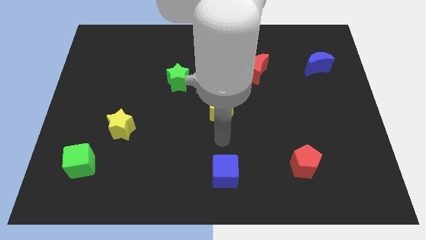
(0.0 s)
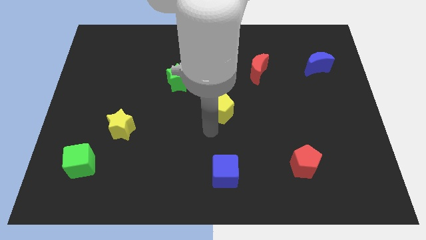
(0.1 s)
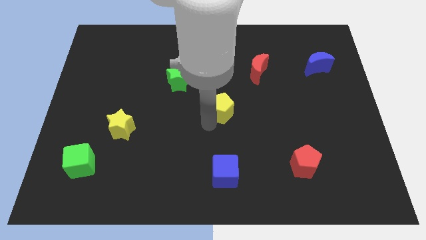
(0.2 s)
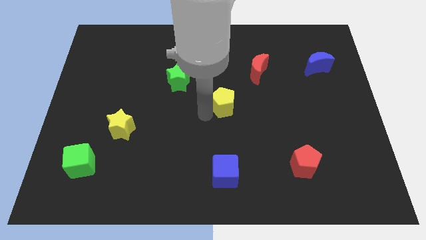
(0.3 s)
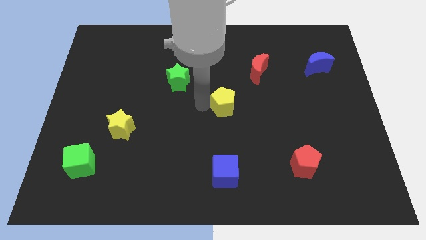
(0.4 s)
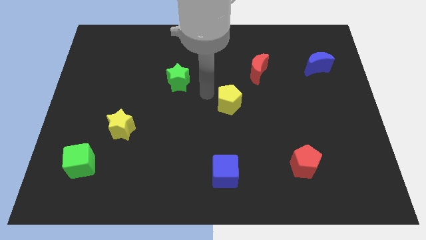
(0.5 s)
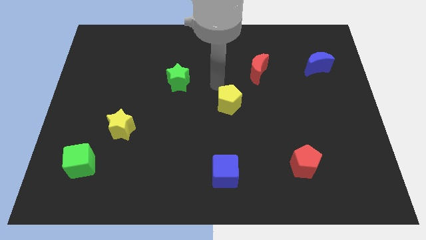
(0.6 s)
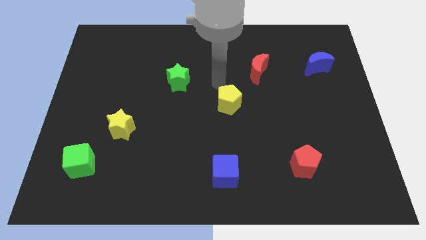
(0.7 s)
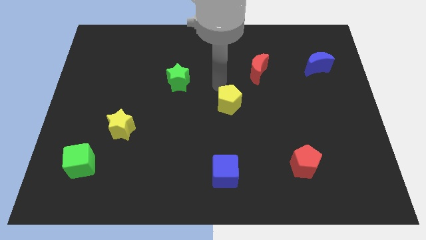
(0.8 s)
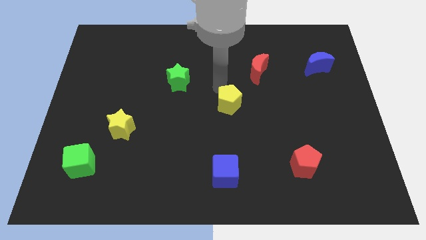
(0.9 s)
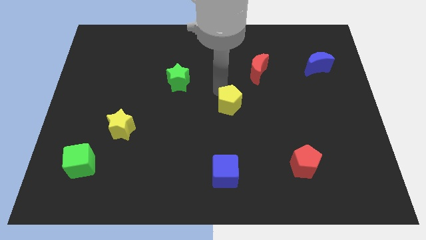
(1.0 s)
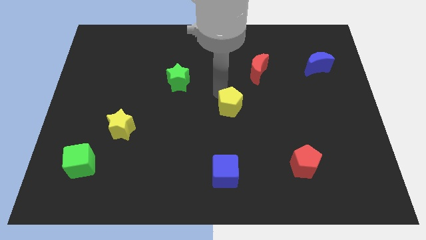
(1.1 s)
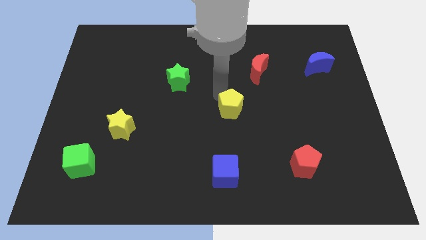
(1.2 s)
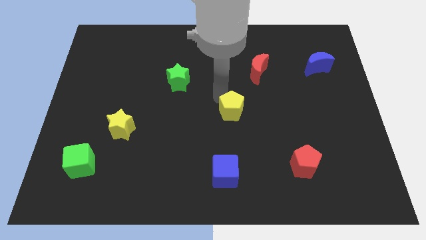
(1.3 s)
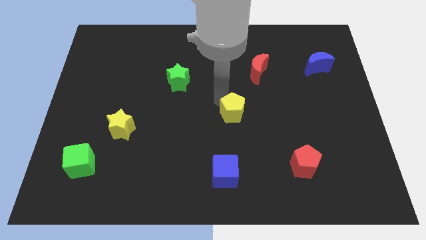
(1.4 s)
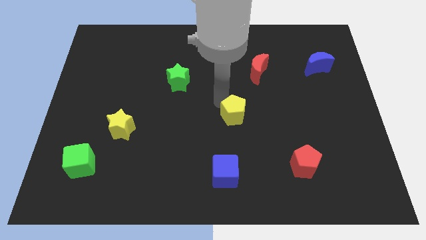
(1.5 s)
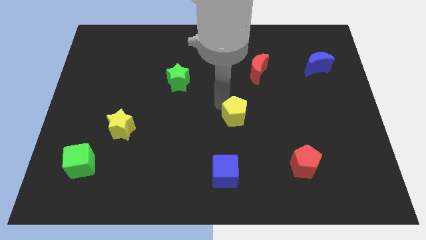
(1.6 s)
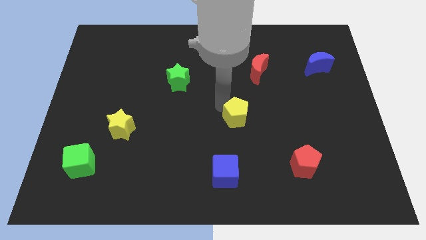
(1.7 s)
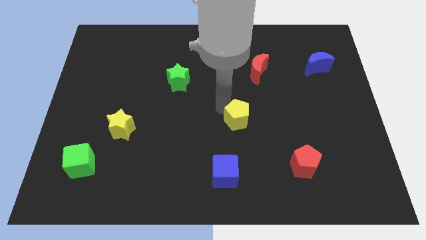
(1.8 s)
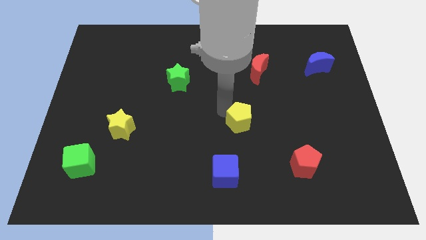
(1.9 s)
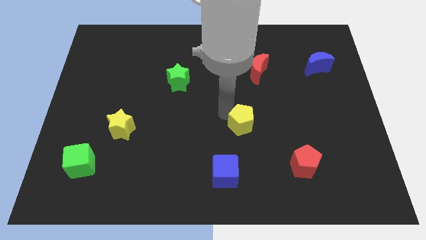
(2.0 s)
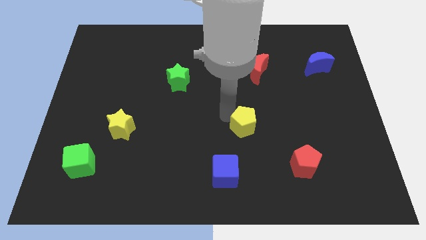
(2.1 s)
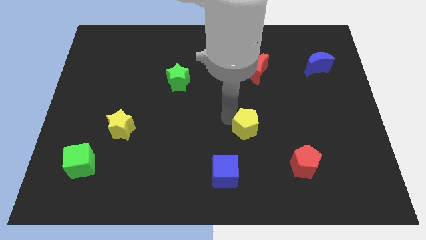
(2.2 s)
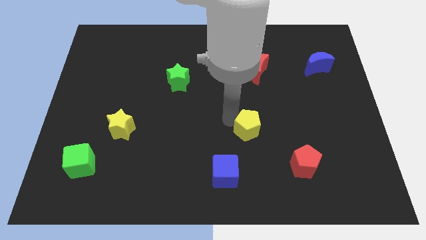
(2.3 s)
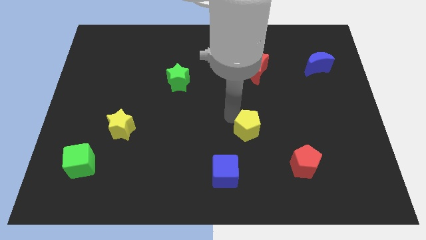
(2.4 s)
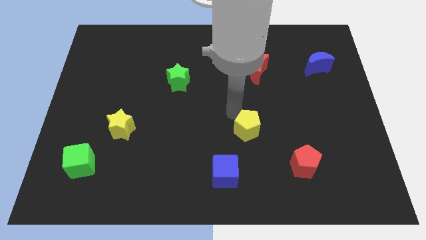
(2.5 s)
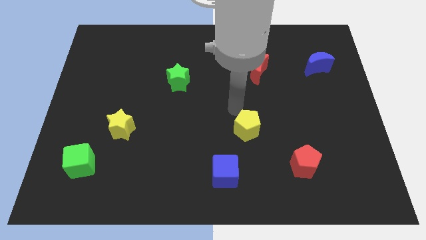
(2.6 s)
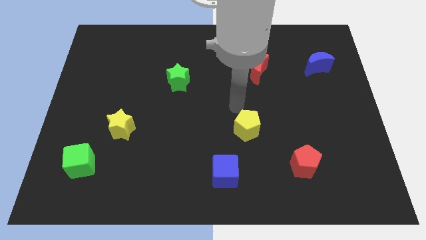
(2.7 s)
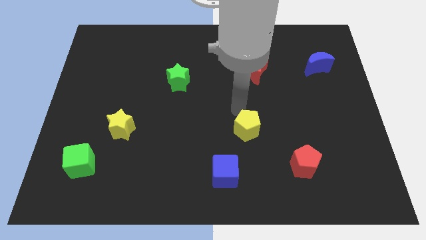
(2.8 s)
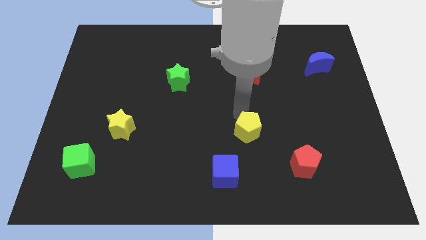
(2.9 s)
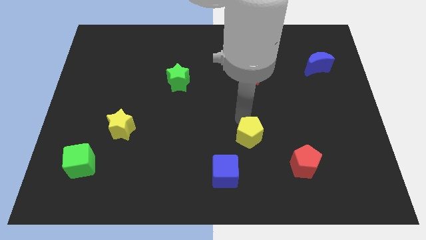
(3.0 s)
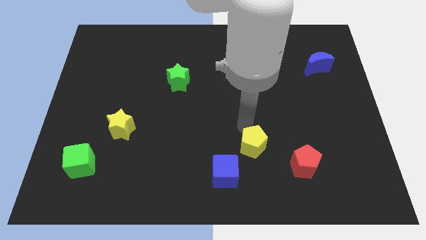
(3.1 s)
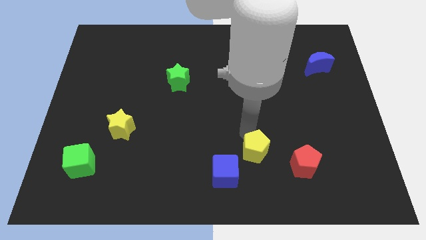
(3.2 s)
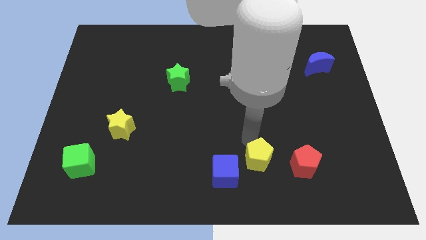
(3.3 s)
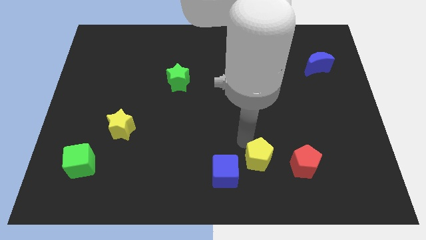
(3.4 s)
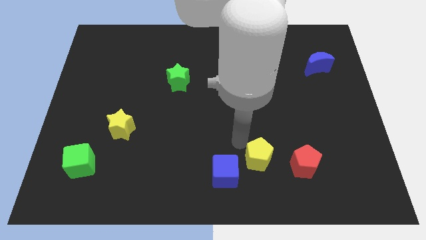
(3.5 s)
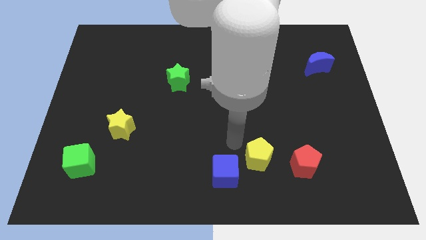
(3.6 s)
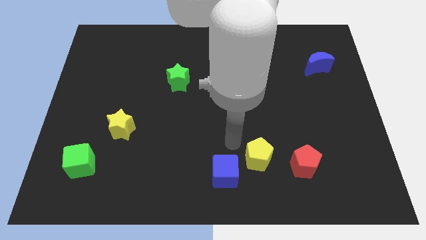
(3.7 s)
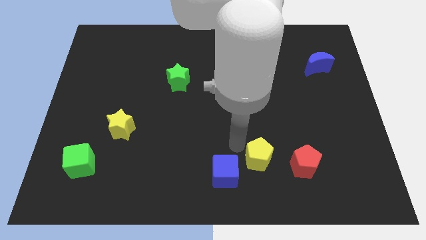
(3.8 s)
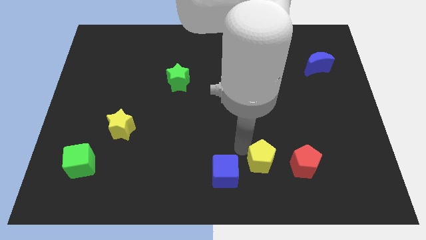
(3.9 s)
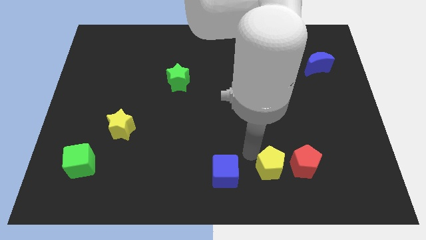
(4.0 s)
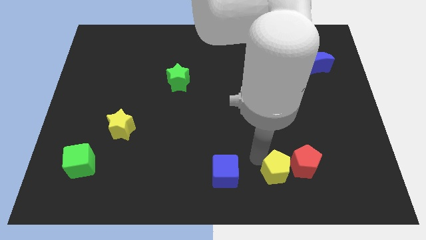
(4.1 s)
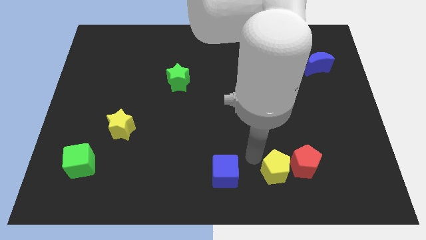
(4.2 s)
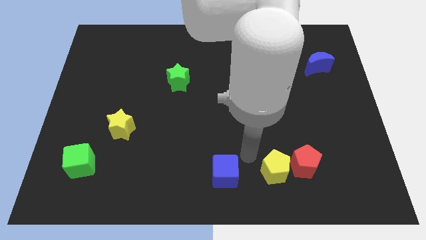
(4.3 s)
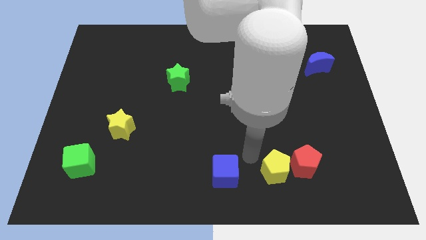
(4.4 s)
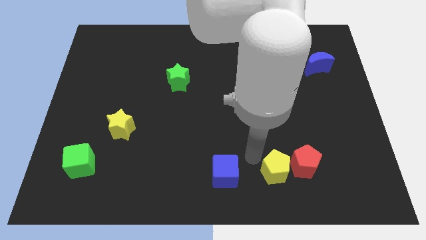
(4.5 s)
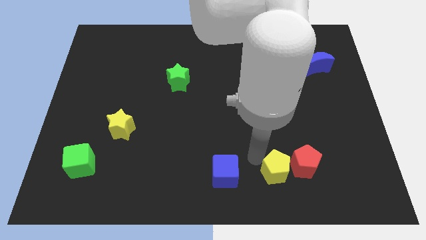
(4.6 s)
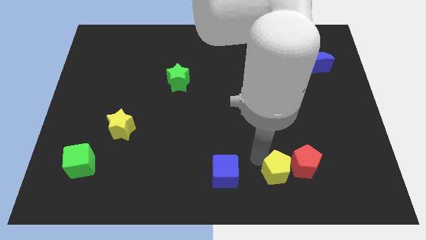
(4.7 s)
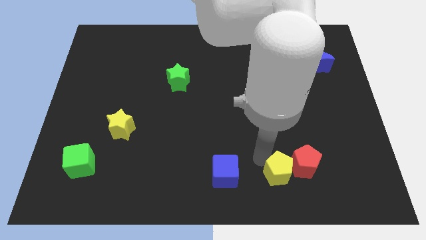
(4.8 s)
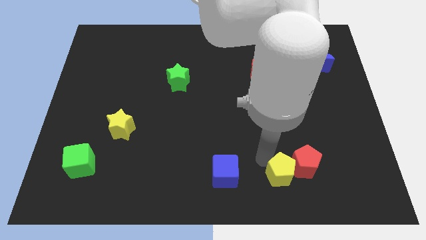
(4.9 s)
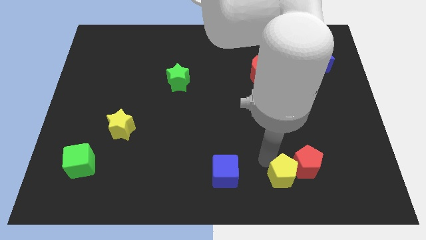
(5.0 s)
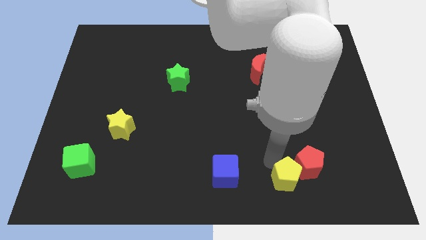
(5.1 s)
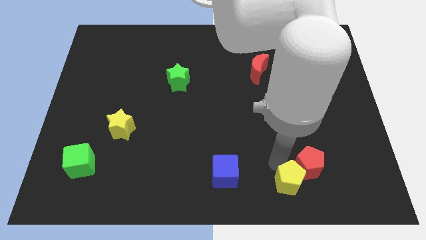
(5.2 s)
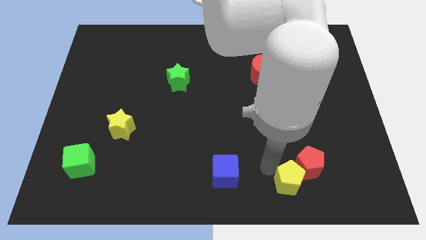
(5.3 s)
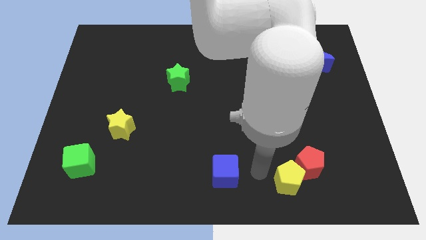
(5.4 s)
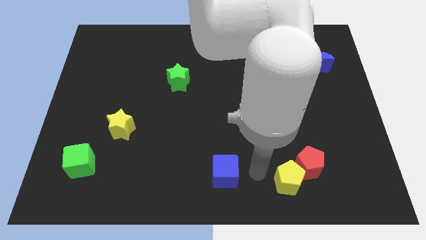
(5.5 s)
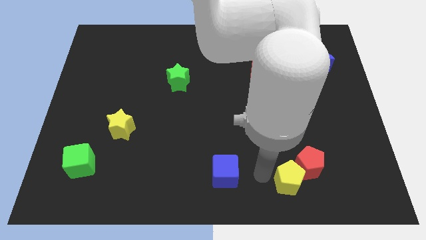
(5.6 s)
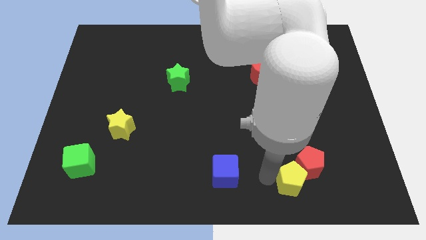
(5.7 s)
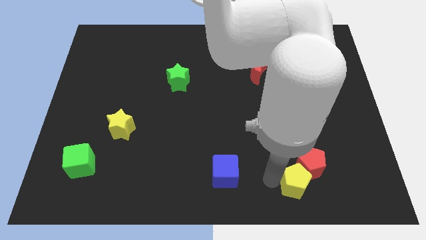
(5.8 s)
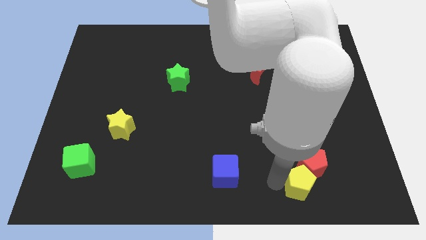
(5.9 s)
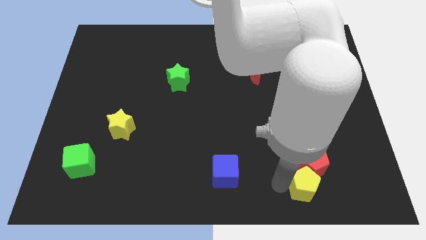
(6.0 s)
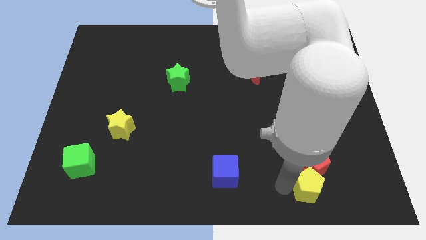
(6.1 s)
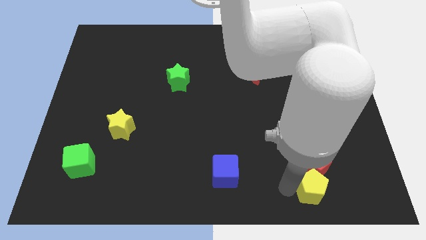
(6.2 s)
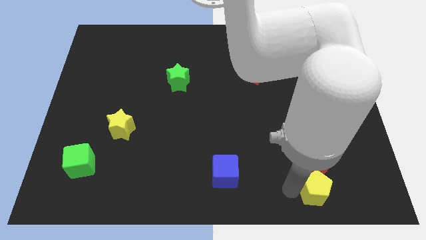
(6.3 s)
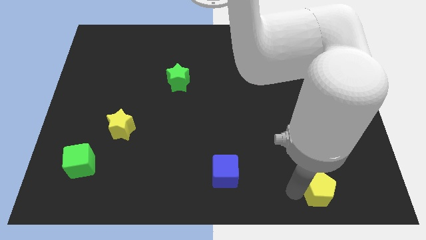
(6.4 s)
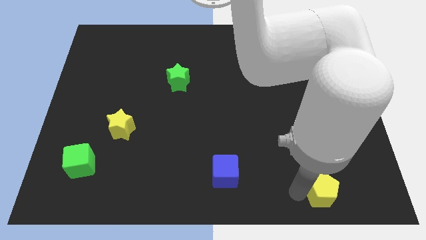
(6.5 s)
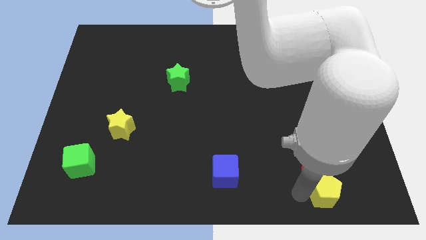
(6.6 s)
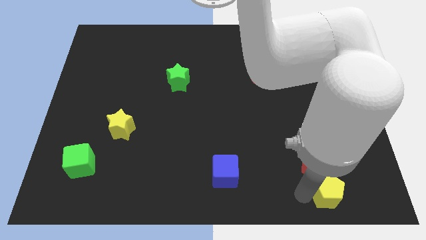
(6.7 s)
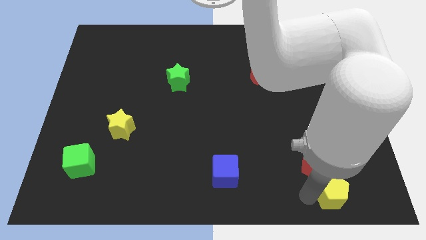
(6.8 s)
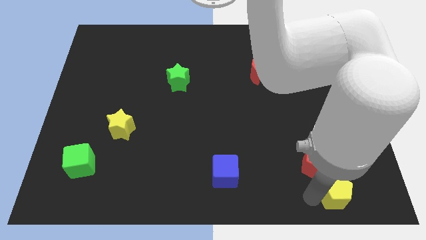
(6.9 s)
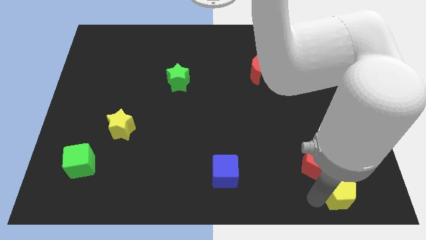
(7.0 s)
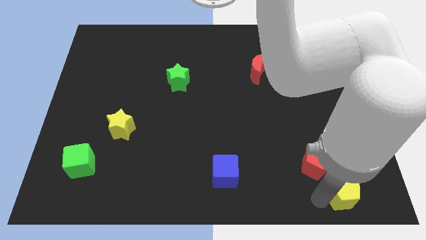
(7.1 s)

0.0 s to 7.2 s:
slide the yellow pentagon to the lower right corner
